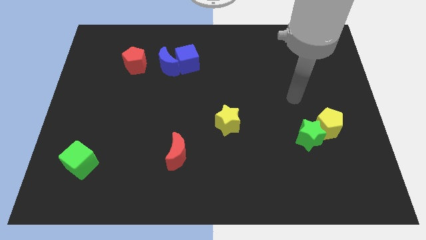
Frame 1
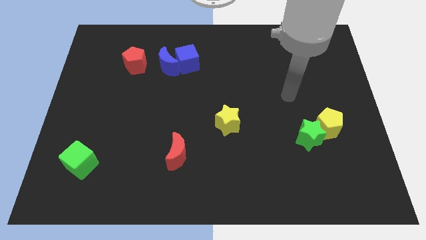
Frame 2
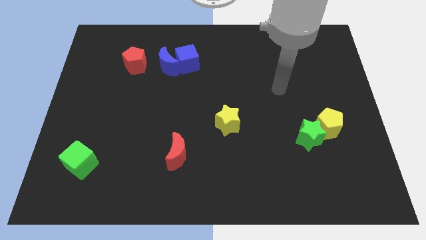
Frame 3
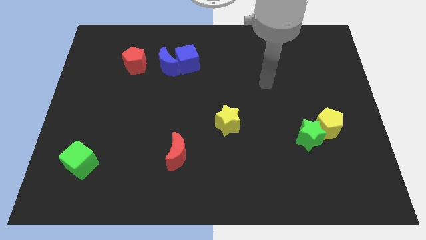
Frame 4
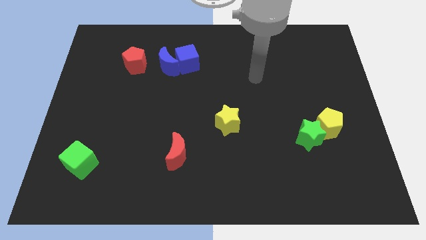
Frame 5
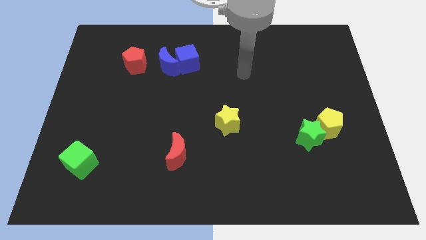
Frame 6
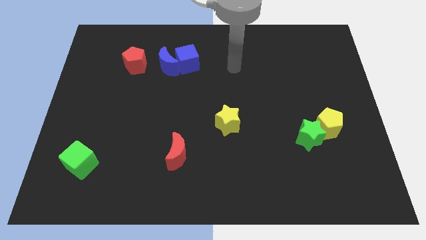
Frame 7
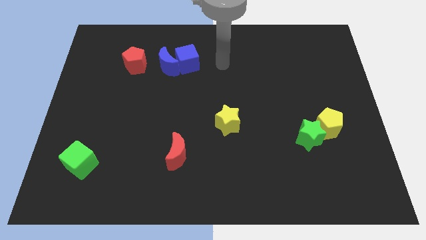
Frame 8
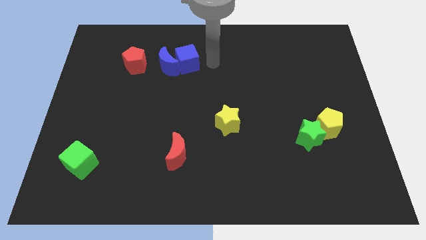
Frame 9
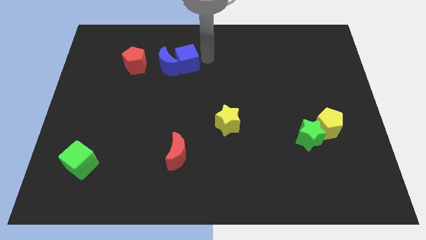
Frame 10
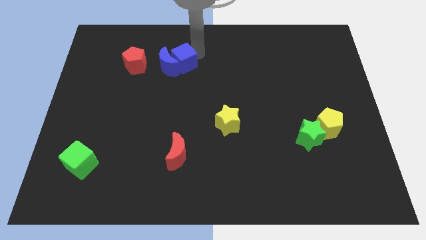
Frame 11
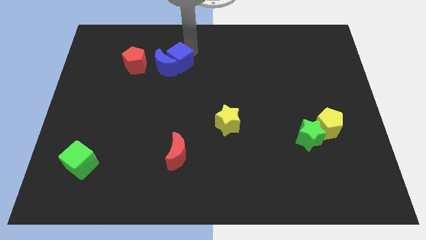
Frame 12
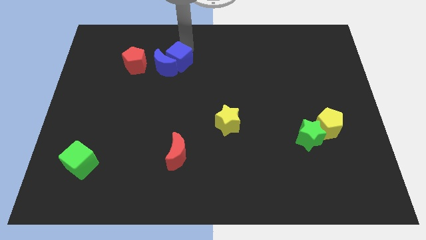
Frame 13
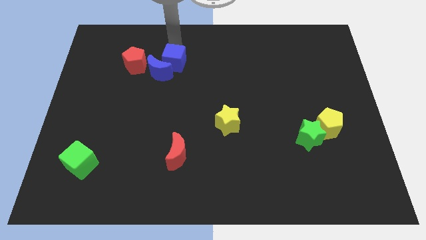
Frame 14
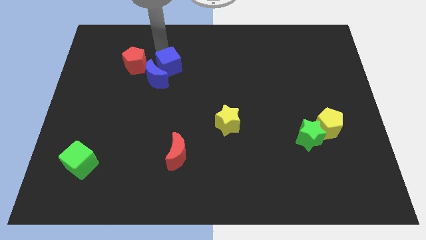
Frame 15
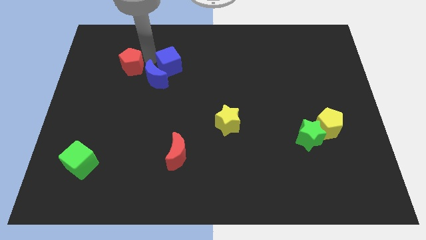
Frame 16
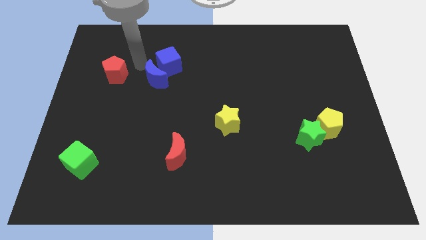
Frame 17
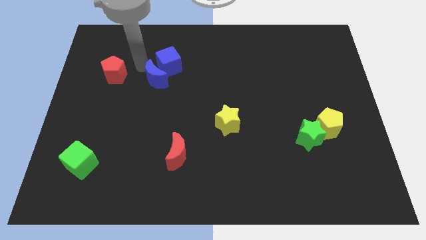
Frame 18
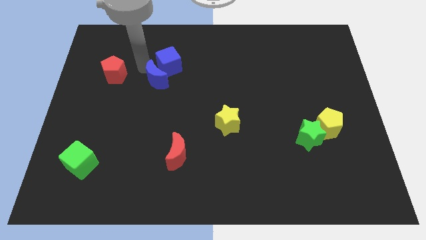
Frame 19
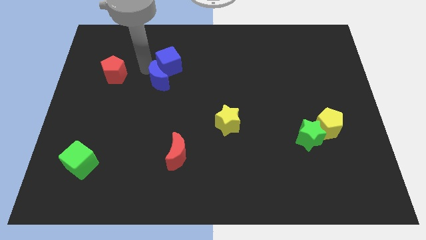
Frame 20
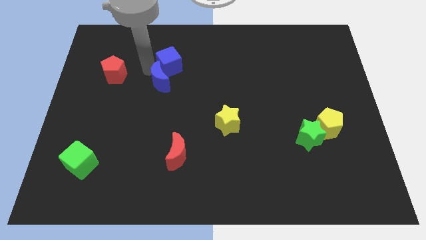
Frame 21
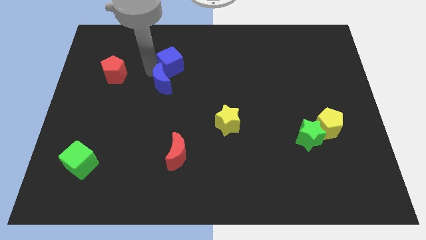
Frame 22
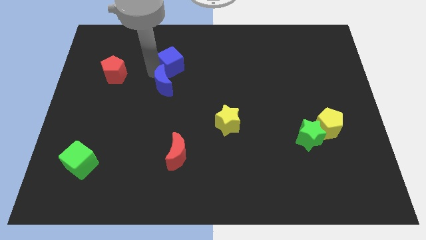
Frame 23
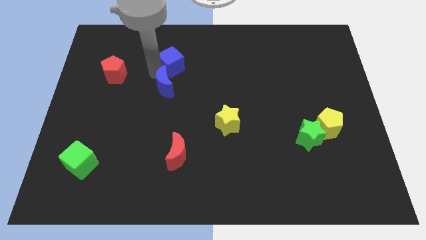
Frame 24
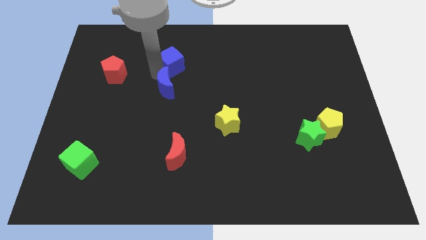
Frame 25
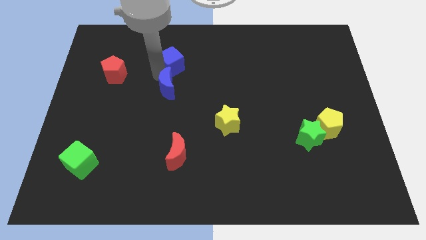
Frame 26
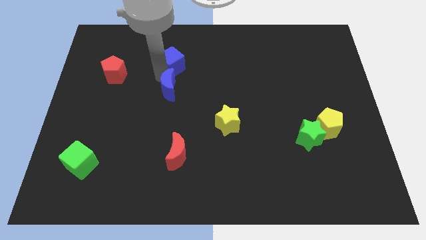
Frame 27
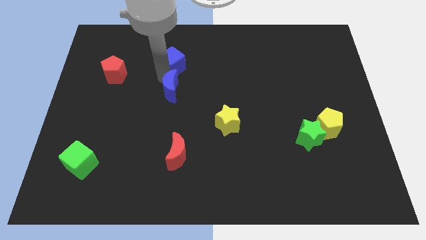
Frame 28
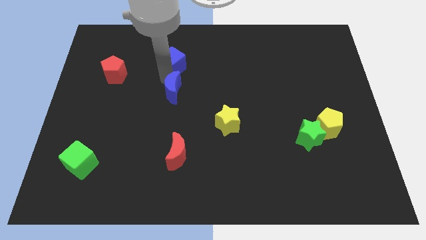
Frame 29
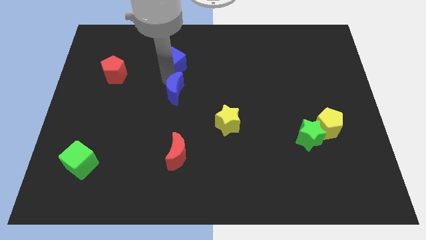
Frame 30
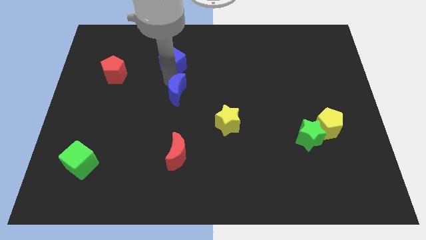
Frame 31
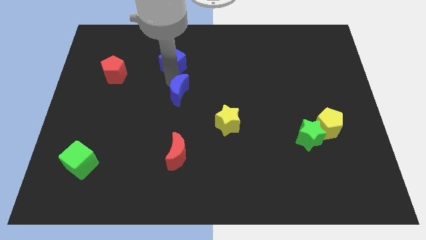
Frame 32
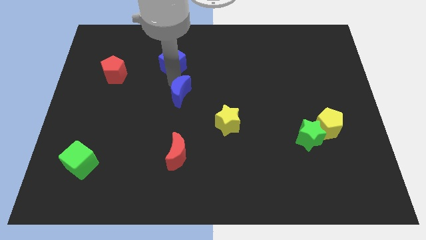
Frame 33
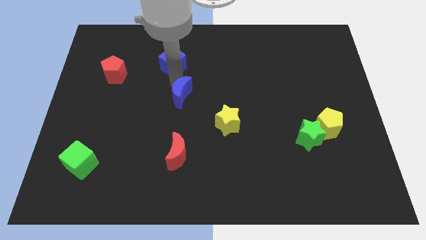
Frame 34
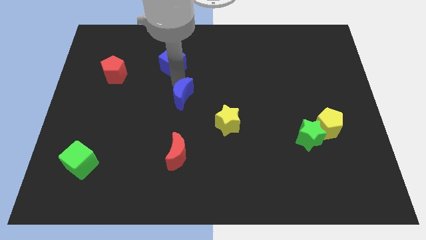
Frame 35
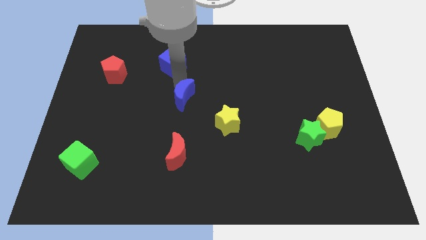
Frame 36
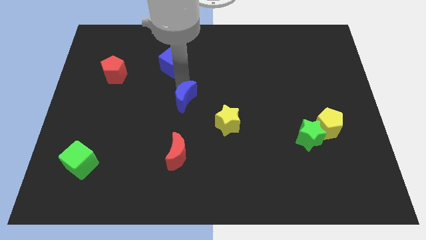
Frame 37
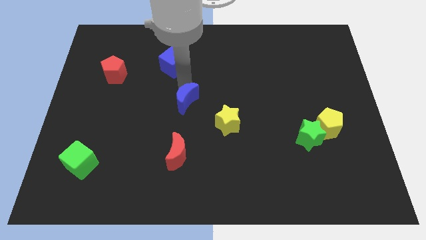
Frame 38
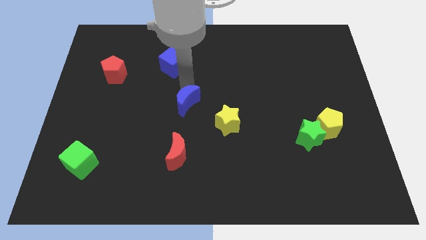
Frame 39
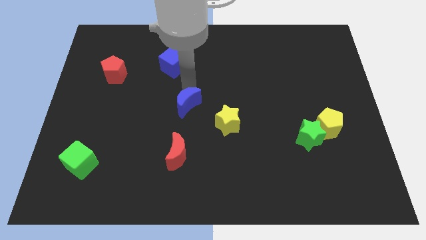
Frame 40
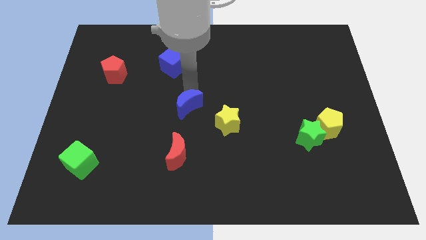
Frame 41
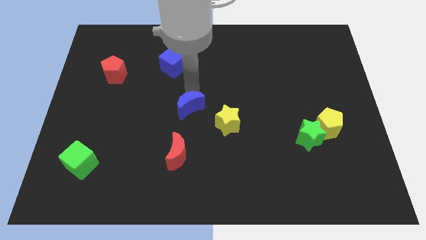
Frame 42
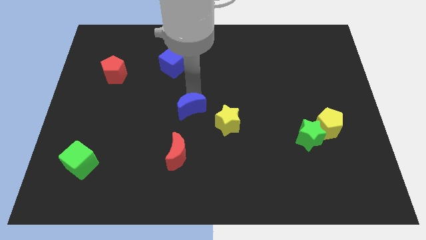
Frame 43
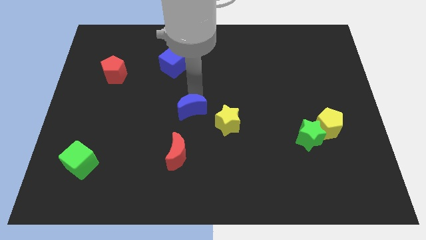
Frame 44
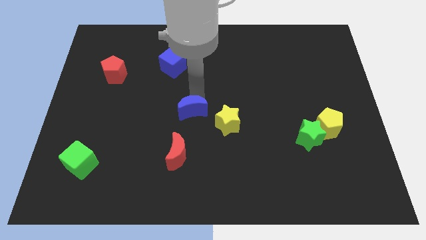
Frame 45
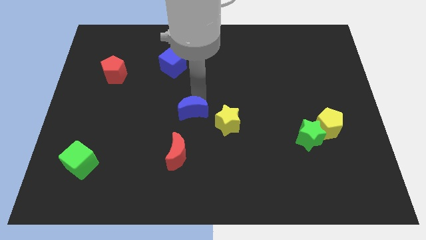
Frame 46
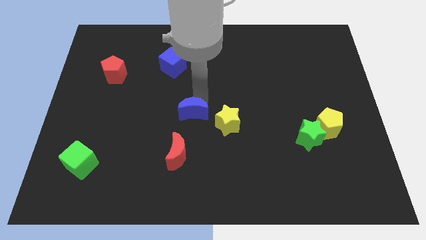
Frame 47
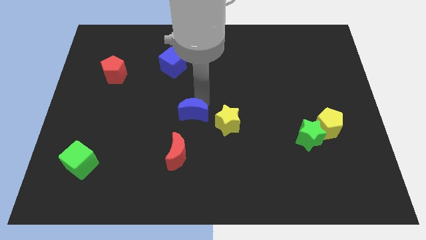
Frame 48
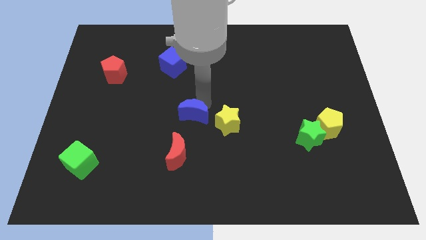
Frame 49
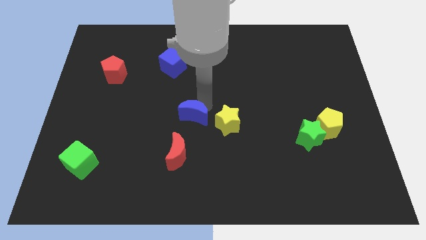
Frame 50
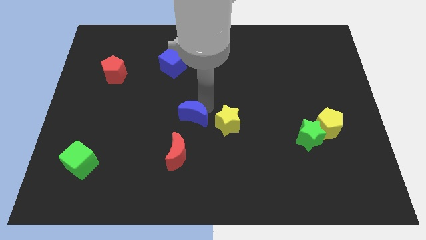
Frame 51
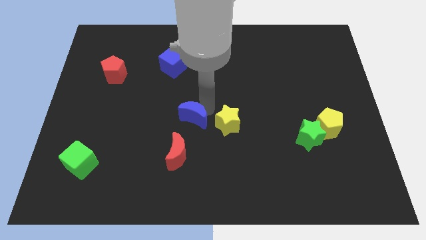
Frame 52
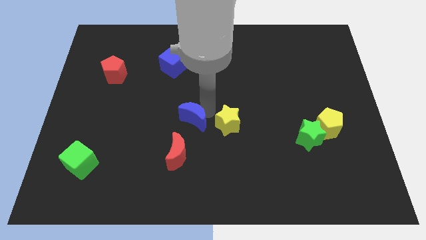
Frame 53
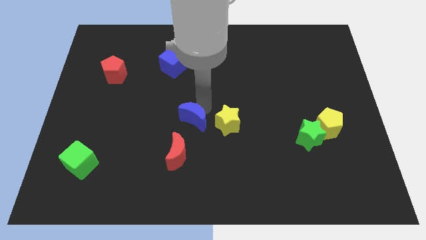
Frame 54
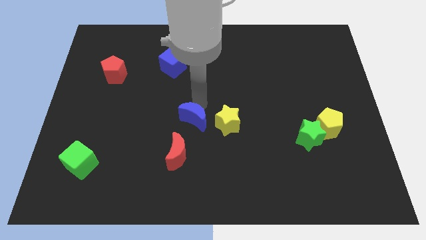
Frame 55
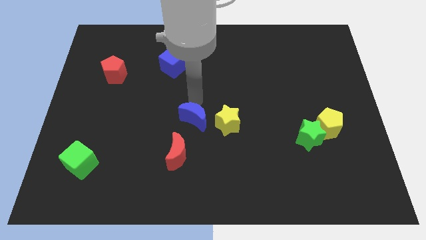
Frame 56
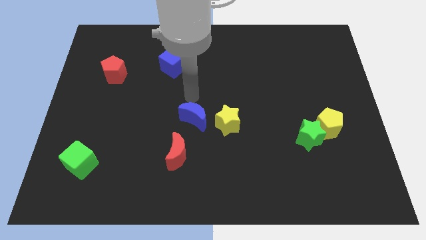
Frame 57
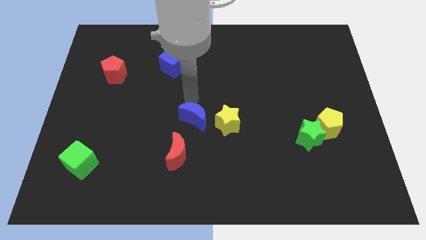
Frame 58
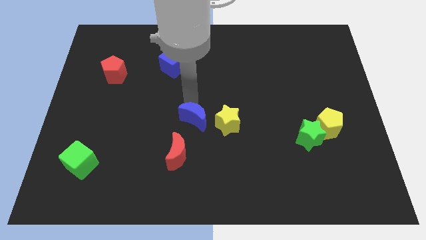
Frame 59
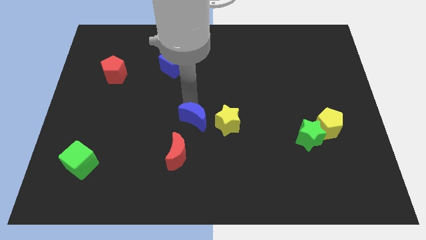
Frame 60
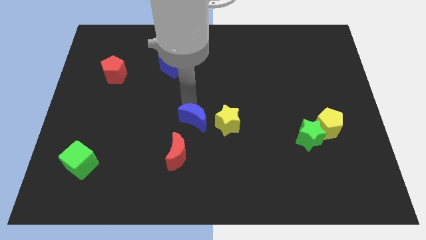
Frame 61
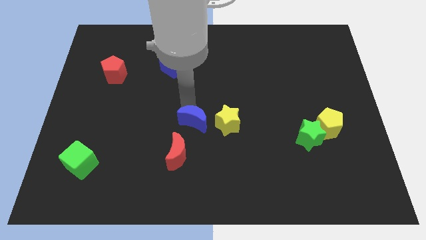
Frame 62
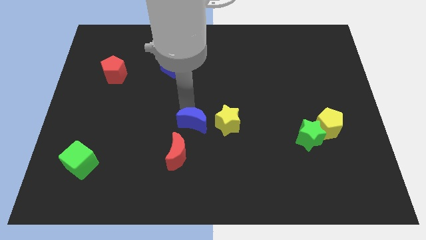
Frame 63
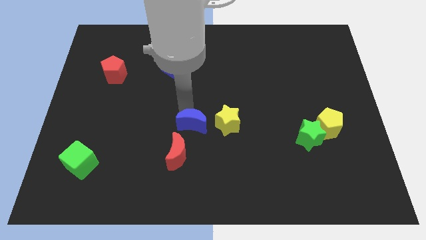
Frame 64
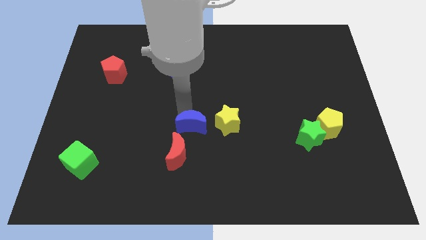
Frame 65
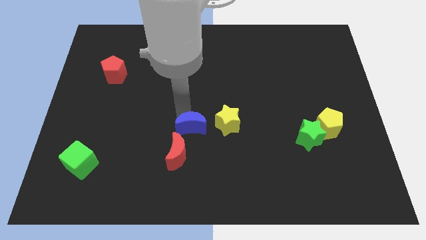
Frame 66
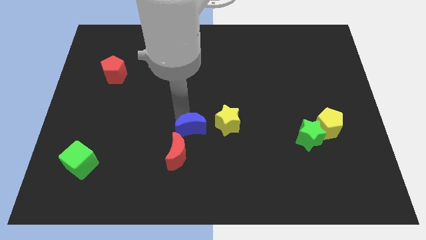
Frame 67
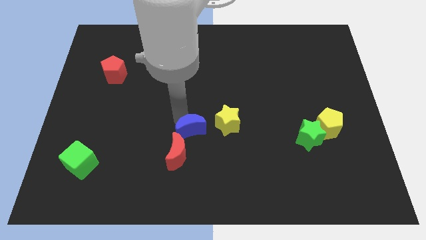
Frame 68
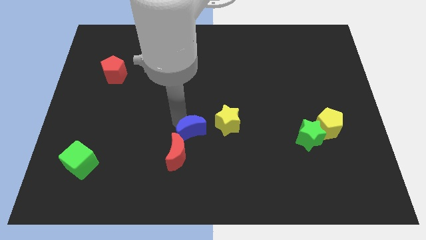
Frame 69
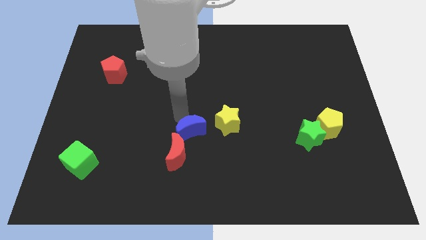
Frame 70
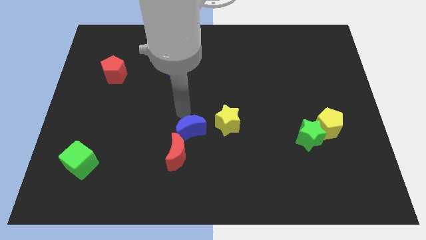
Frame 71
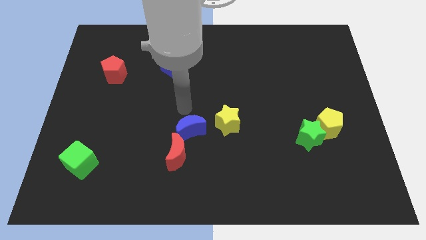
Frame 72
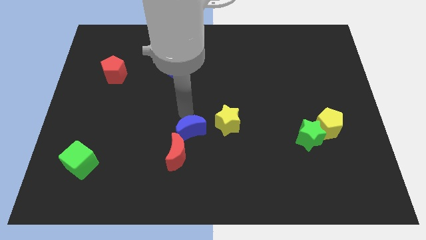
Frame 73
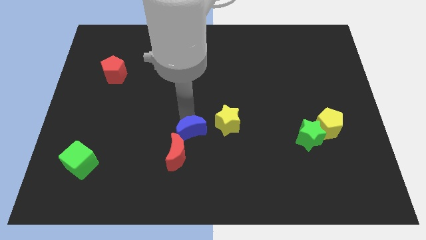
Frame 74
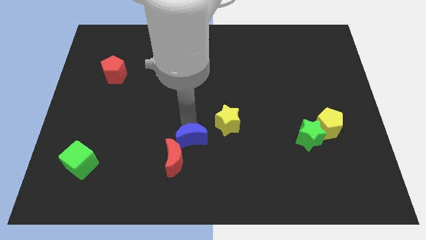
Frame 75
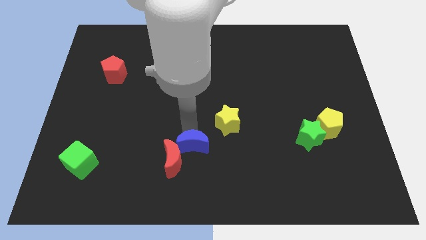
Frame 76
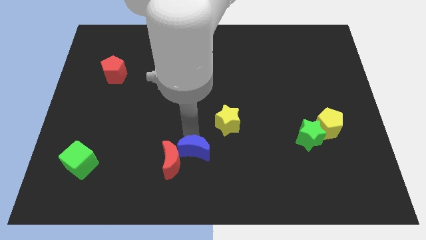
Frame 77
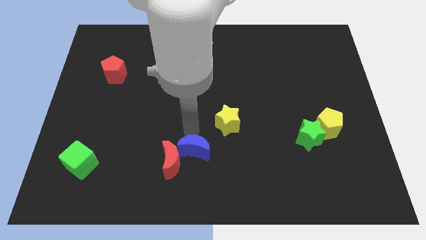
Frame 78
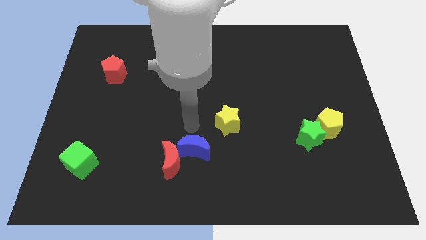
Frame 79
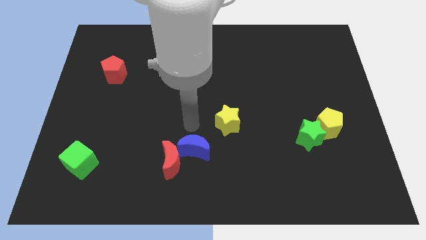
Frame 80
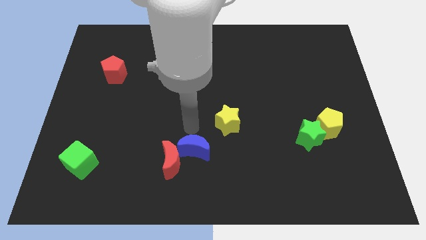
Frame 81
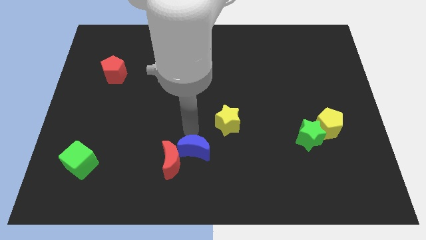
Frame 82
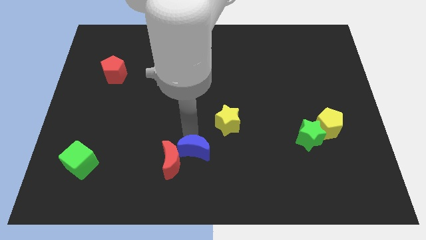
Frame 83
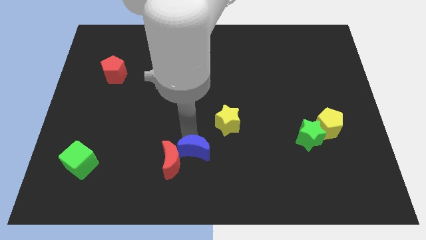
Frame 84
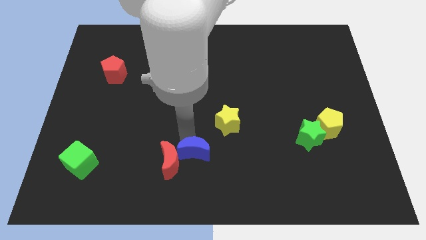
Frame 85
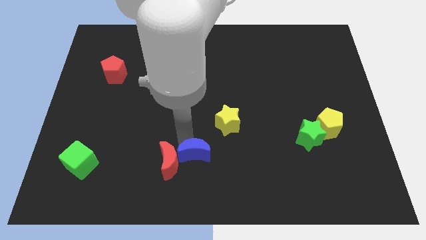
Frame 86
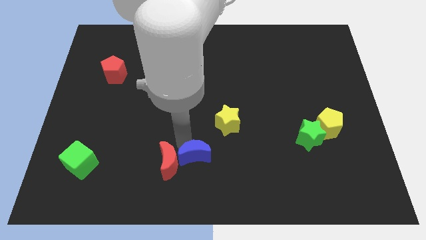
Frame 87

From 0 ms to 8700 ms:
put the blue moon to the bottom
